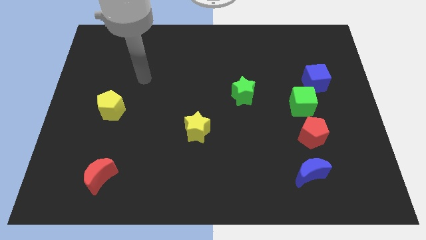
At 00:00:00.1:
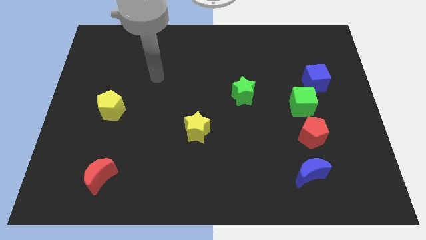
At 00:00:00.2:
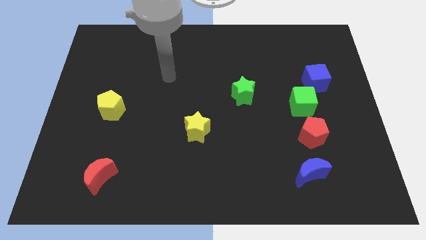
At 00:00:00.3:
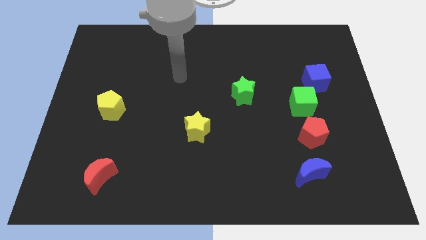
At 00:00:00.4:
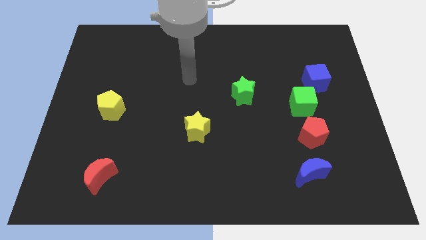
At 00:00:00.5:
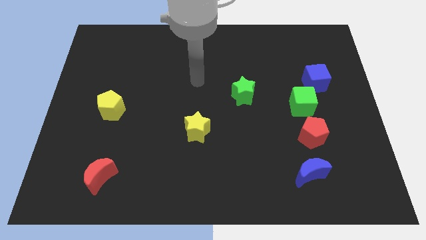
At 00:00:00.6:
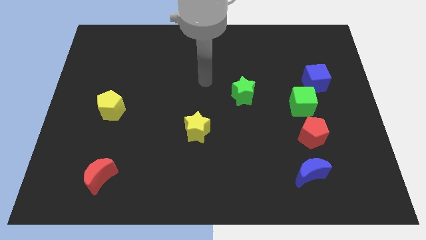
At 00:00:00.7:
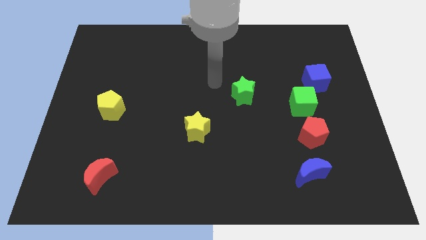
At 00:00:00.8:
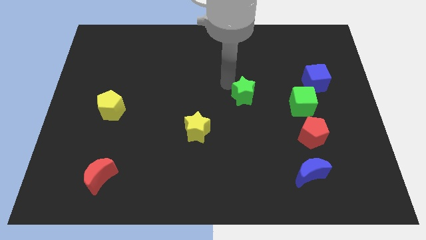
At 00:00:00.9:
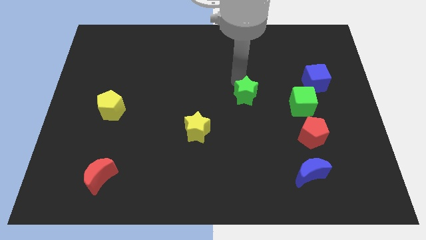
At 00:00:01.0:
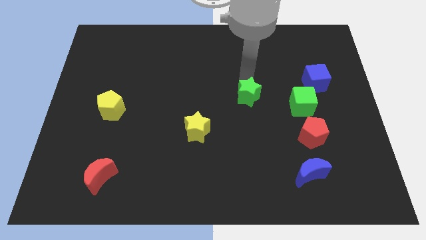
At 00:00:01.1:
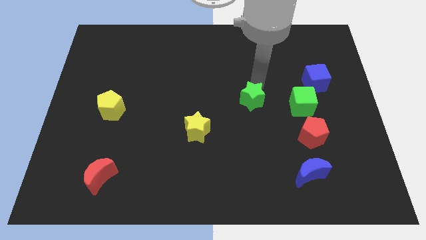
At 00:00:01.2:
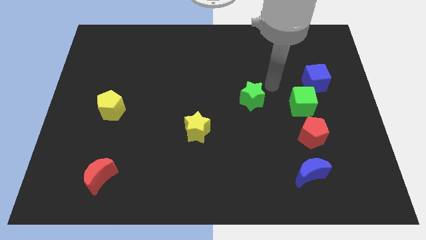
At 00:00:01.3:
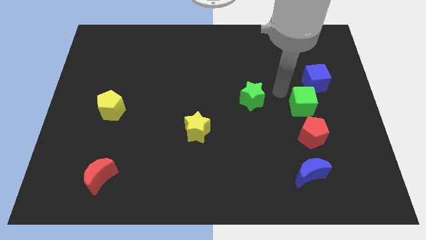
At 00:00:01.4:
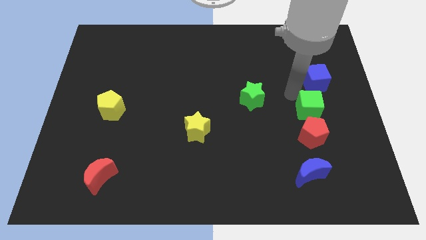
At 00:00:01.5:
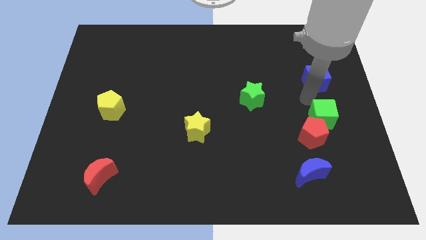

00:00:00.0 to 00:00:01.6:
separate the blue cube from the green cube

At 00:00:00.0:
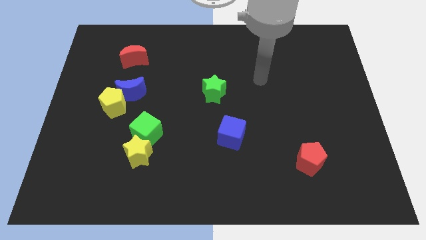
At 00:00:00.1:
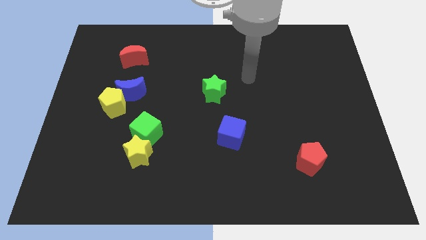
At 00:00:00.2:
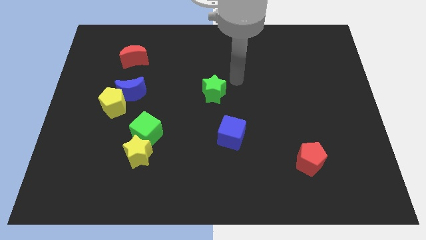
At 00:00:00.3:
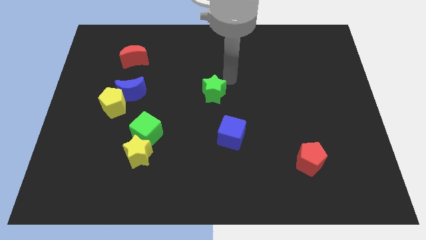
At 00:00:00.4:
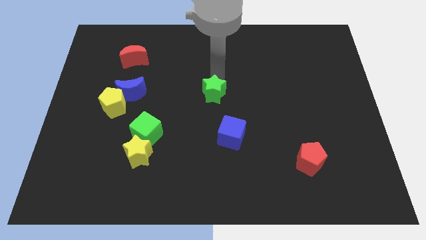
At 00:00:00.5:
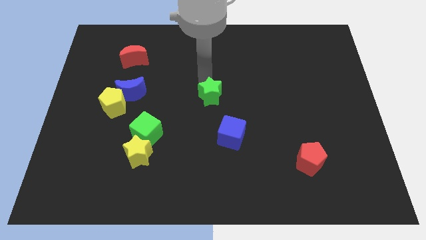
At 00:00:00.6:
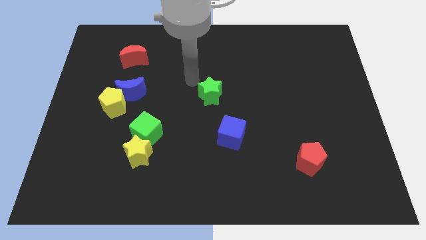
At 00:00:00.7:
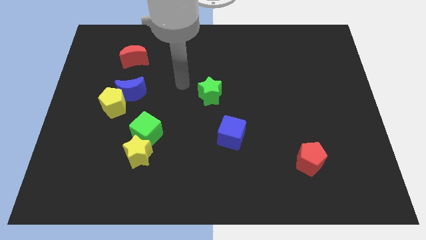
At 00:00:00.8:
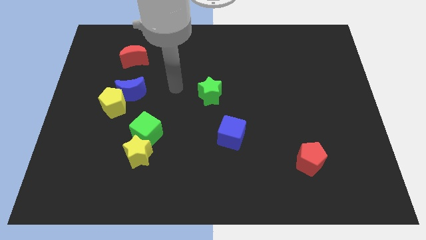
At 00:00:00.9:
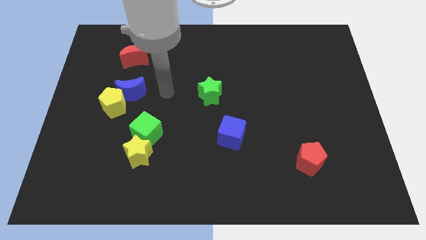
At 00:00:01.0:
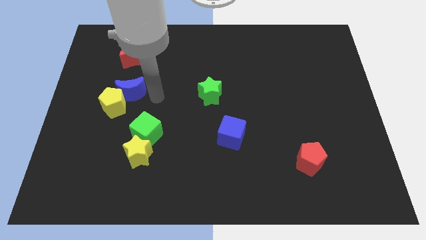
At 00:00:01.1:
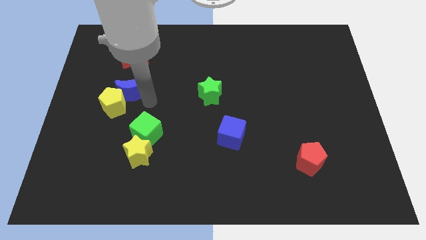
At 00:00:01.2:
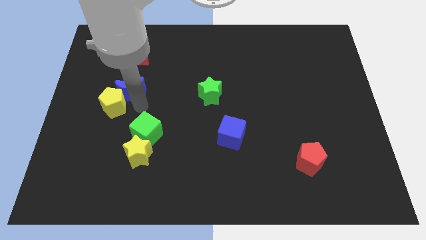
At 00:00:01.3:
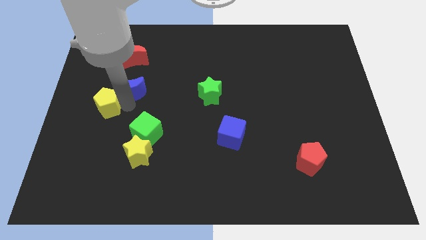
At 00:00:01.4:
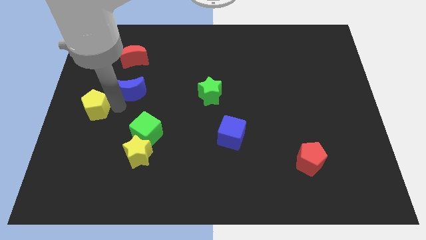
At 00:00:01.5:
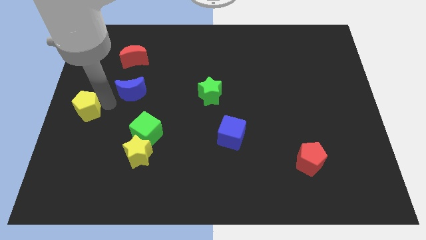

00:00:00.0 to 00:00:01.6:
separate the blue moon from the yellow pentagon

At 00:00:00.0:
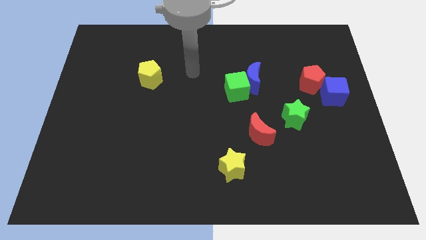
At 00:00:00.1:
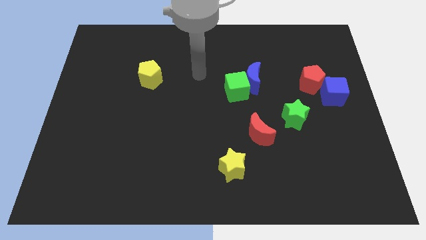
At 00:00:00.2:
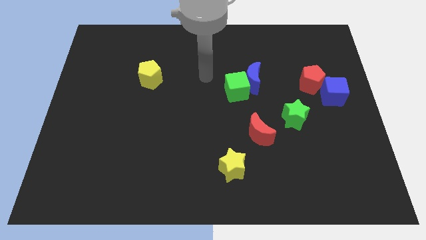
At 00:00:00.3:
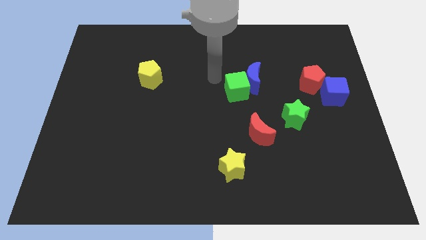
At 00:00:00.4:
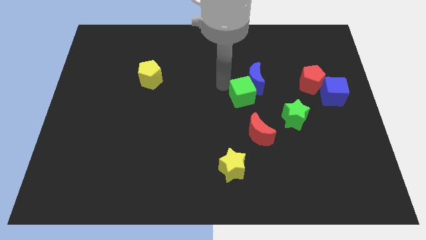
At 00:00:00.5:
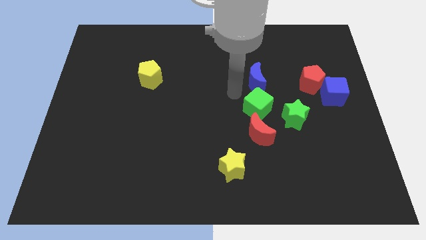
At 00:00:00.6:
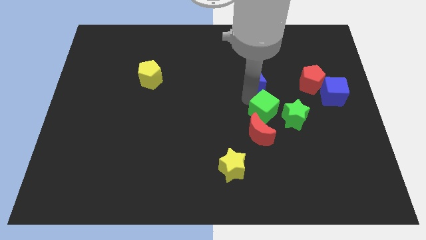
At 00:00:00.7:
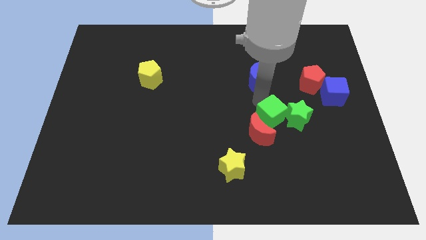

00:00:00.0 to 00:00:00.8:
pull the blue moon apart from the green cube

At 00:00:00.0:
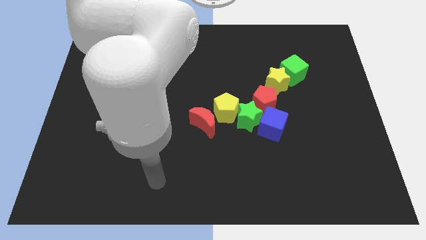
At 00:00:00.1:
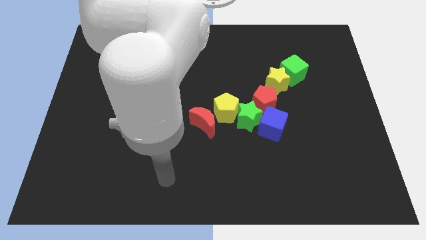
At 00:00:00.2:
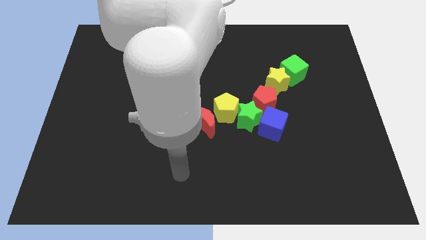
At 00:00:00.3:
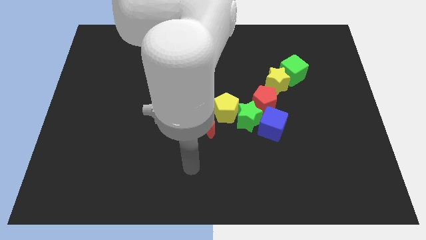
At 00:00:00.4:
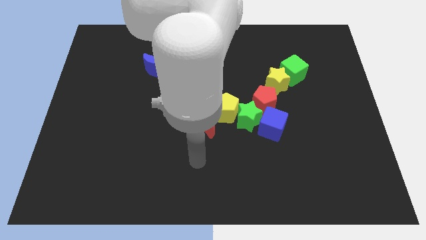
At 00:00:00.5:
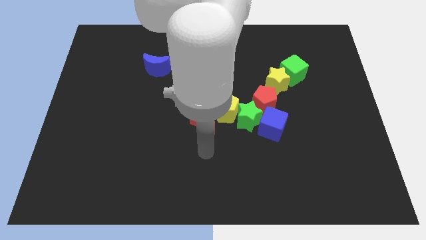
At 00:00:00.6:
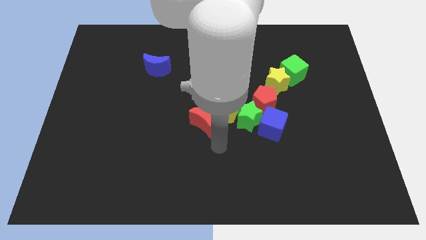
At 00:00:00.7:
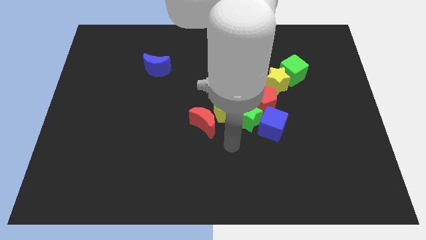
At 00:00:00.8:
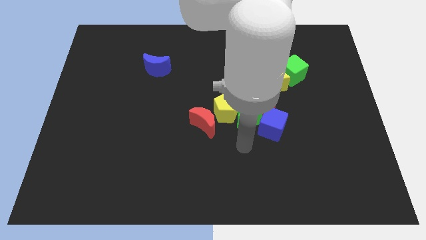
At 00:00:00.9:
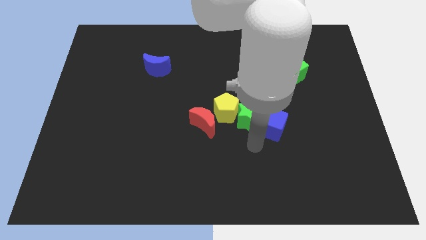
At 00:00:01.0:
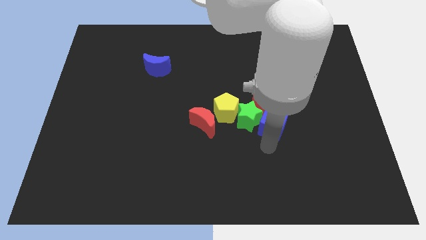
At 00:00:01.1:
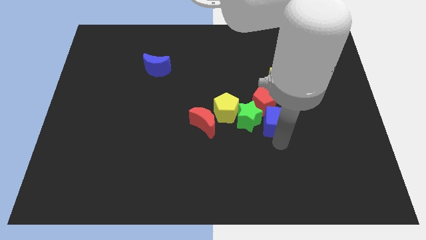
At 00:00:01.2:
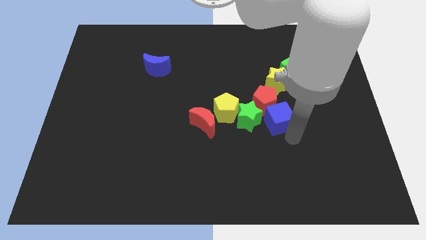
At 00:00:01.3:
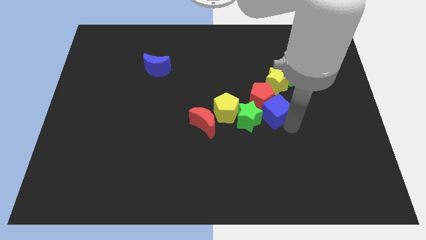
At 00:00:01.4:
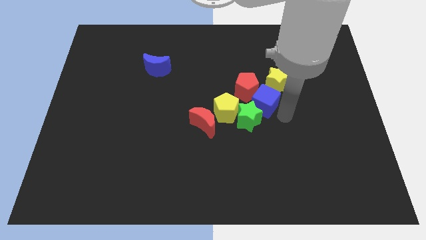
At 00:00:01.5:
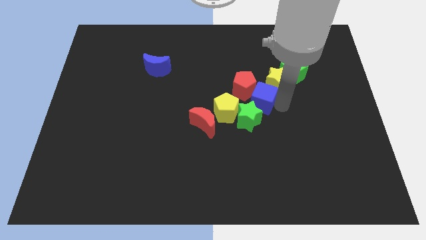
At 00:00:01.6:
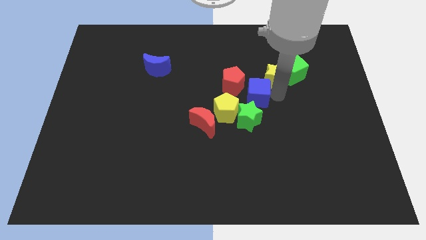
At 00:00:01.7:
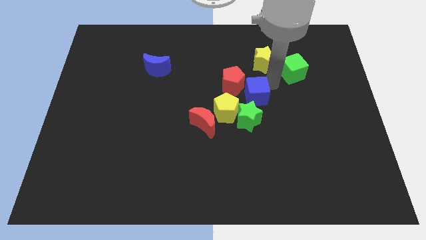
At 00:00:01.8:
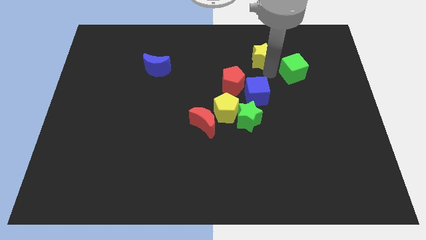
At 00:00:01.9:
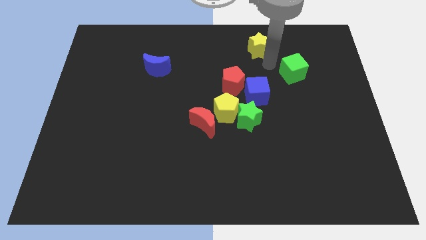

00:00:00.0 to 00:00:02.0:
move the green cube away from the yellow star

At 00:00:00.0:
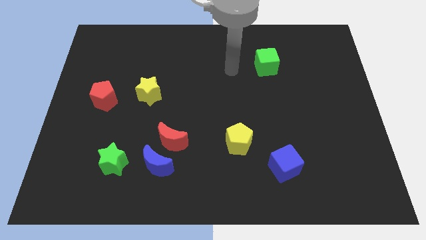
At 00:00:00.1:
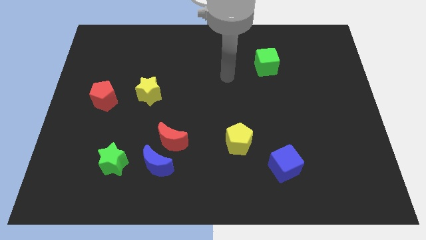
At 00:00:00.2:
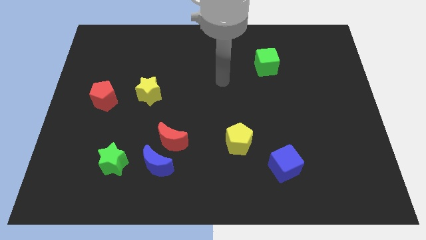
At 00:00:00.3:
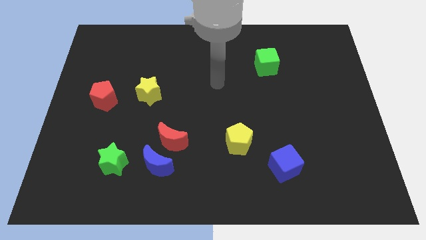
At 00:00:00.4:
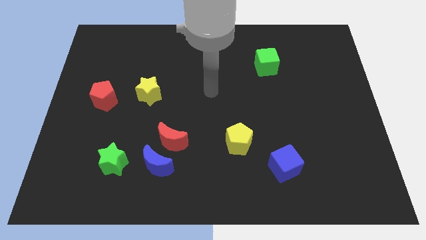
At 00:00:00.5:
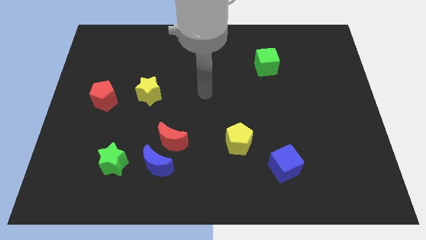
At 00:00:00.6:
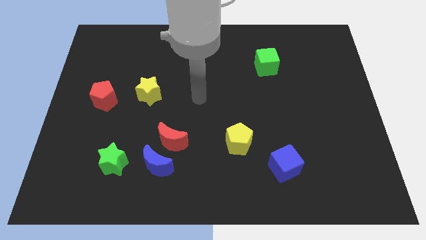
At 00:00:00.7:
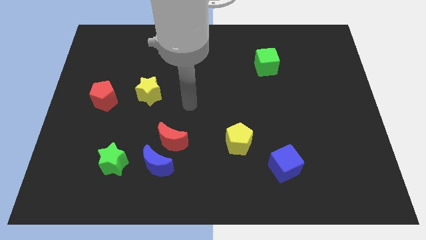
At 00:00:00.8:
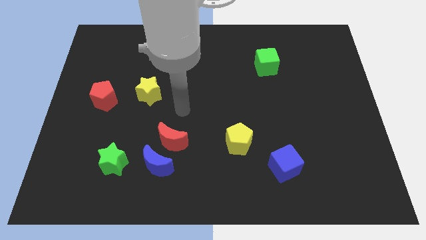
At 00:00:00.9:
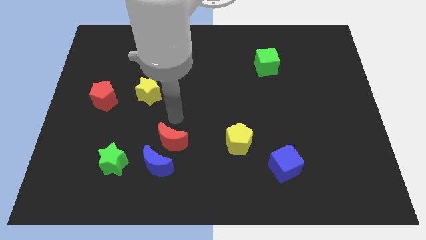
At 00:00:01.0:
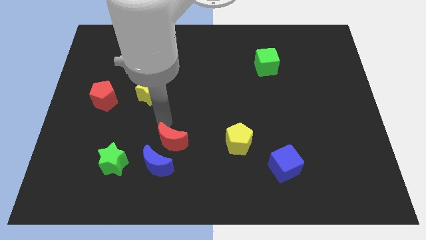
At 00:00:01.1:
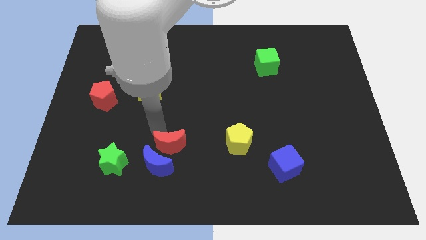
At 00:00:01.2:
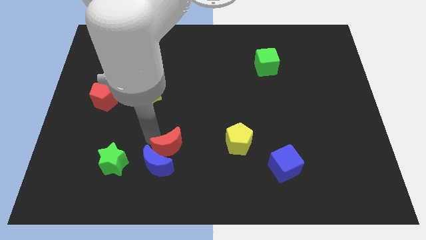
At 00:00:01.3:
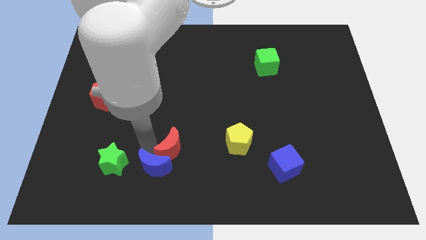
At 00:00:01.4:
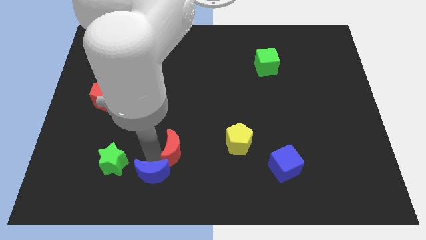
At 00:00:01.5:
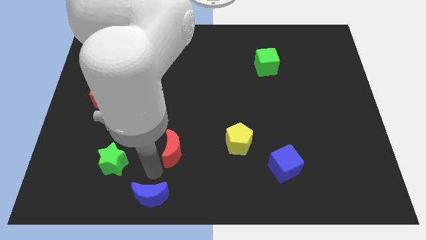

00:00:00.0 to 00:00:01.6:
pull the red moon apart from the blue moon

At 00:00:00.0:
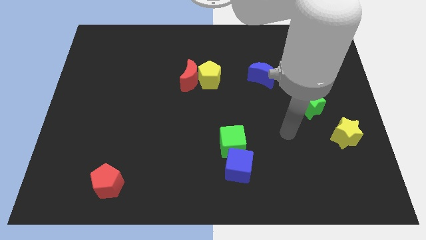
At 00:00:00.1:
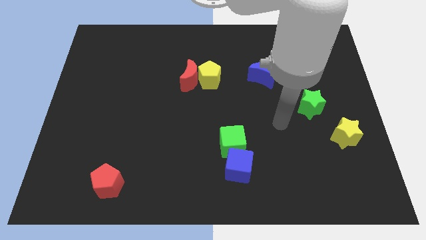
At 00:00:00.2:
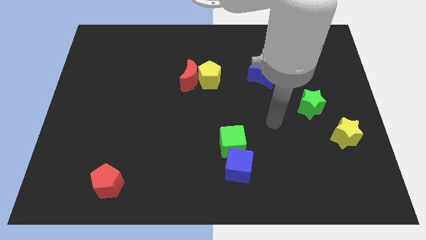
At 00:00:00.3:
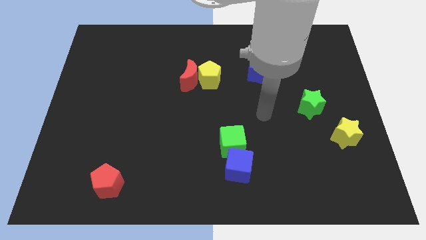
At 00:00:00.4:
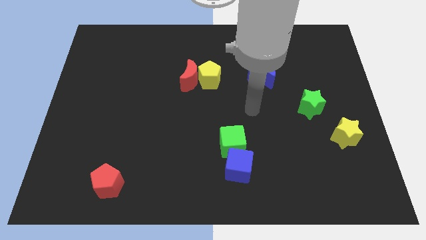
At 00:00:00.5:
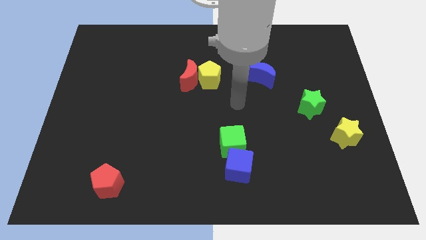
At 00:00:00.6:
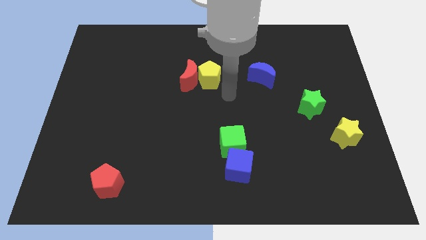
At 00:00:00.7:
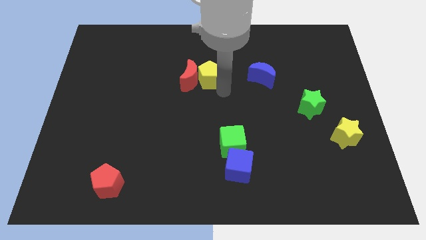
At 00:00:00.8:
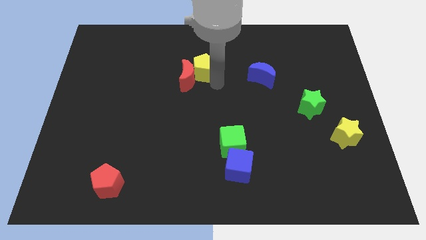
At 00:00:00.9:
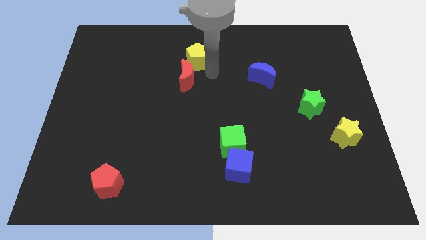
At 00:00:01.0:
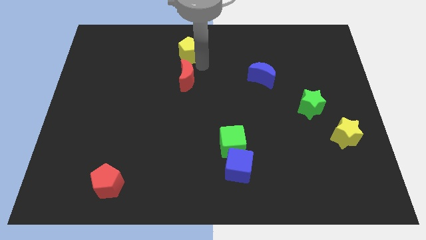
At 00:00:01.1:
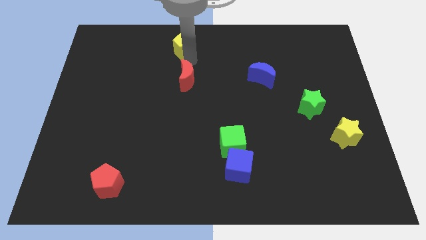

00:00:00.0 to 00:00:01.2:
separate the red moon from the yellow pentagon

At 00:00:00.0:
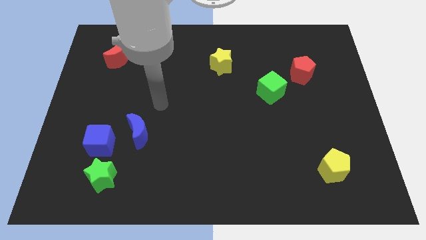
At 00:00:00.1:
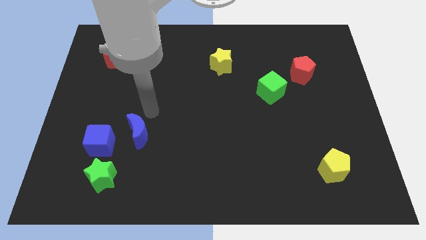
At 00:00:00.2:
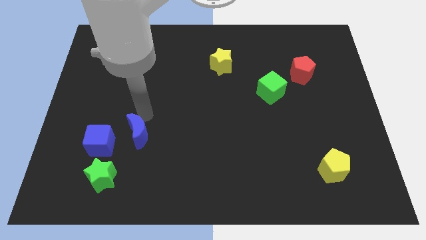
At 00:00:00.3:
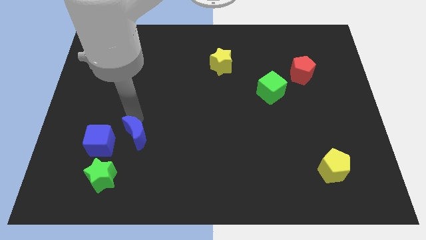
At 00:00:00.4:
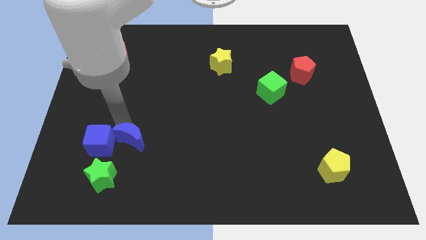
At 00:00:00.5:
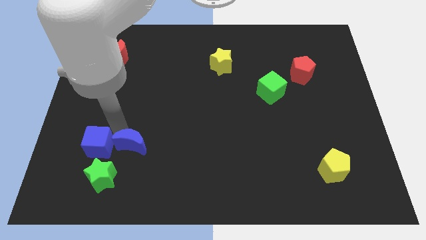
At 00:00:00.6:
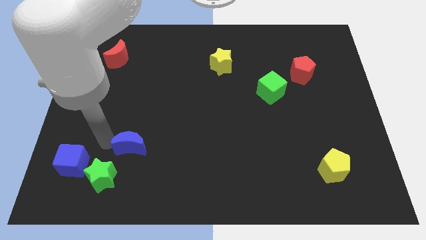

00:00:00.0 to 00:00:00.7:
move the blue moon away from the blue cube
